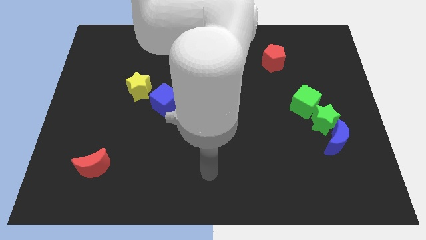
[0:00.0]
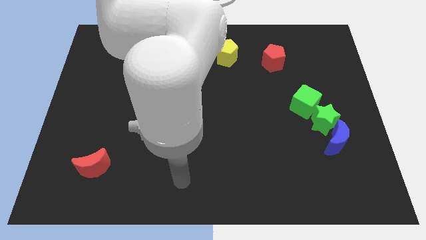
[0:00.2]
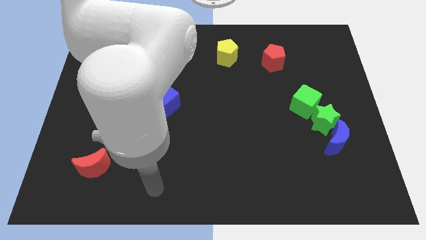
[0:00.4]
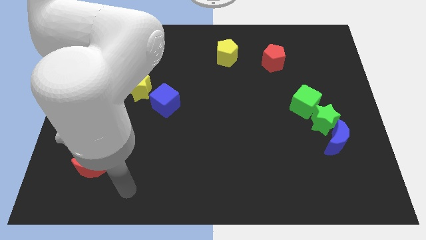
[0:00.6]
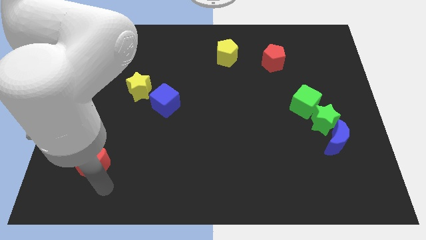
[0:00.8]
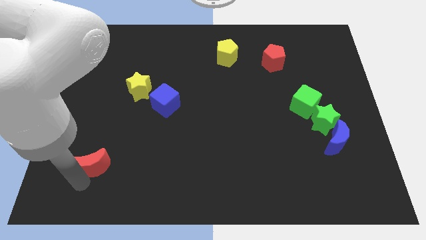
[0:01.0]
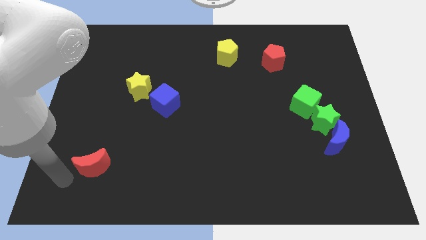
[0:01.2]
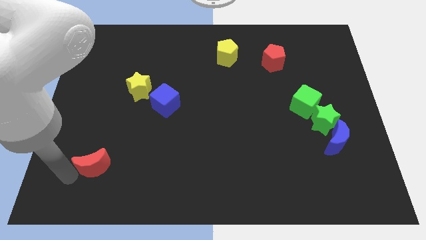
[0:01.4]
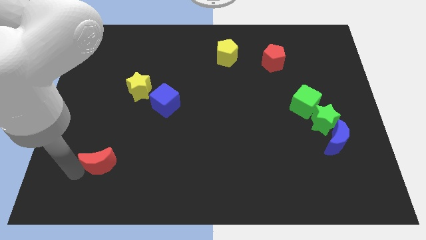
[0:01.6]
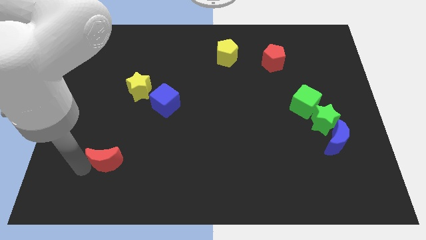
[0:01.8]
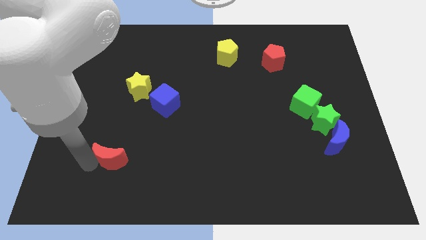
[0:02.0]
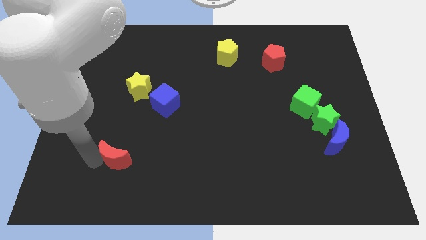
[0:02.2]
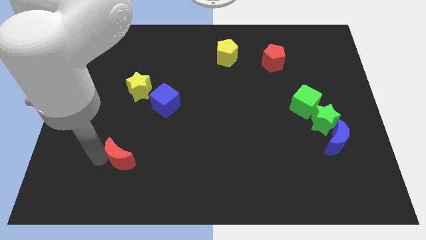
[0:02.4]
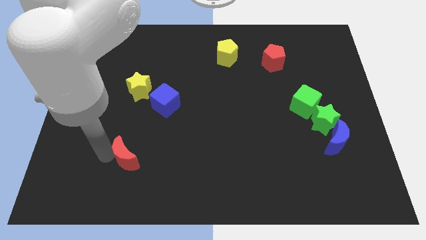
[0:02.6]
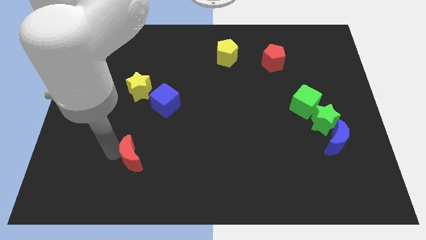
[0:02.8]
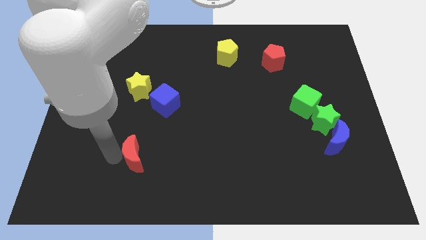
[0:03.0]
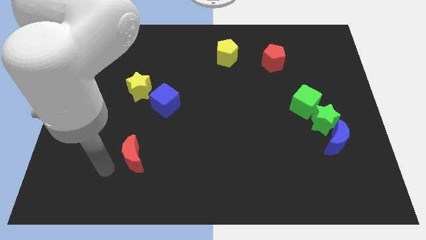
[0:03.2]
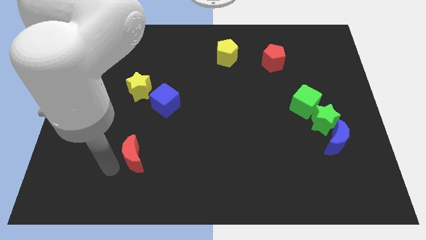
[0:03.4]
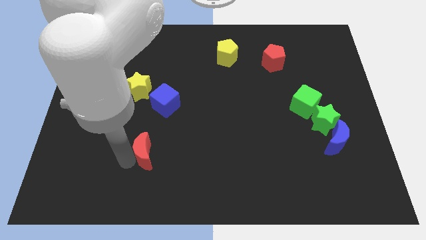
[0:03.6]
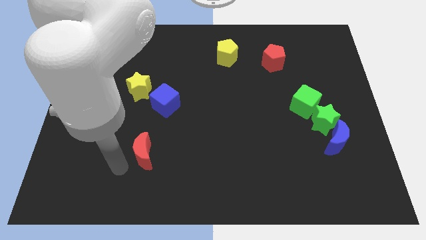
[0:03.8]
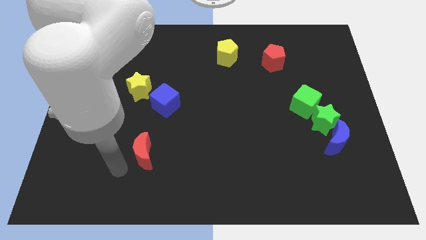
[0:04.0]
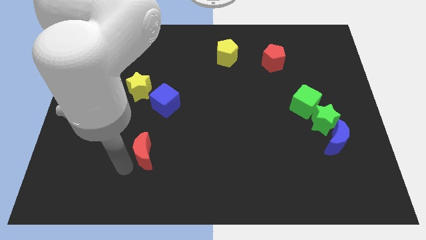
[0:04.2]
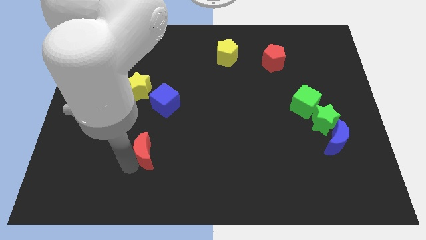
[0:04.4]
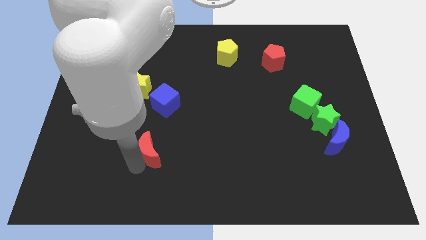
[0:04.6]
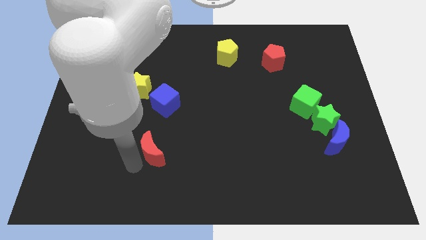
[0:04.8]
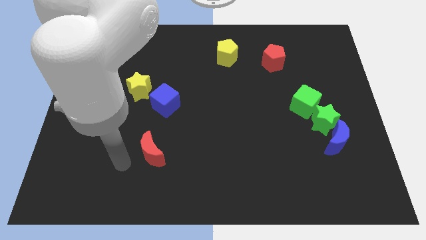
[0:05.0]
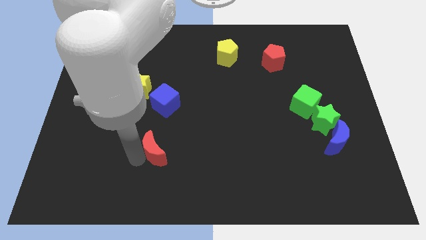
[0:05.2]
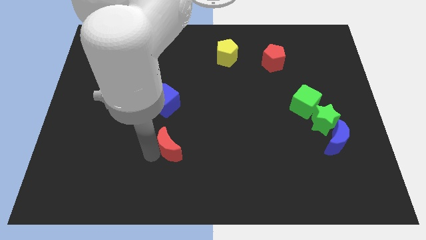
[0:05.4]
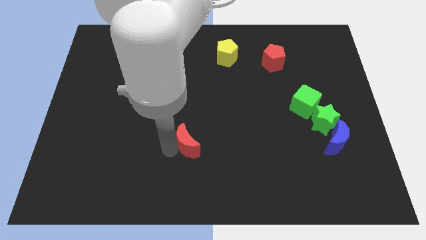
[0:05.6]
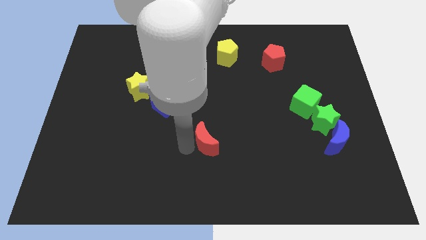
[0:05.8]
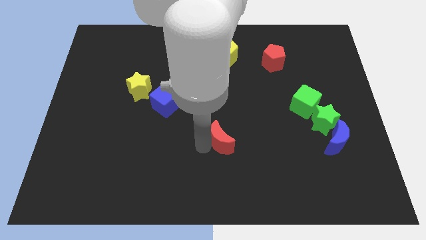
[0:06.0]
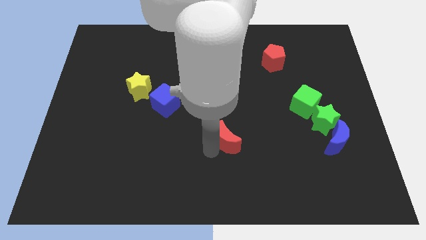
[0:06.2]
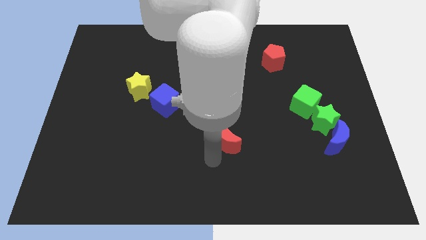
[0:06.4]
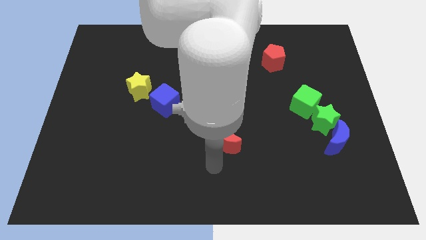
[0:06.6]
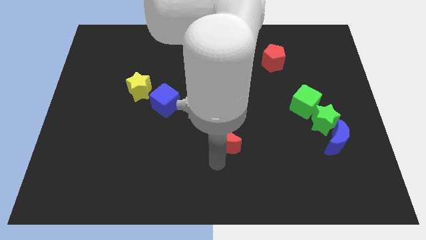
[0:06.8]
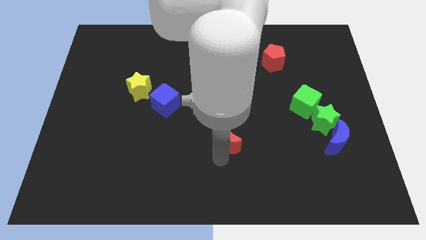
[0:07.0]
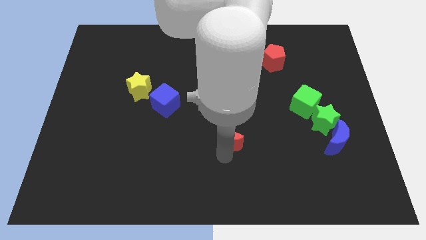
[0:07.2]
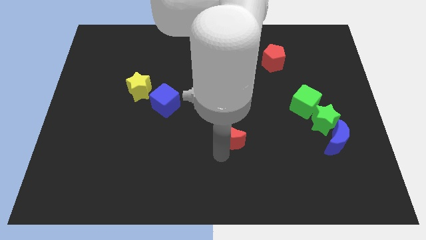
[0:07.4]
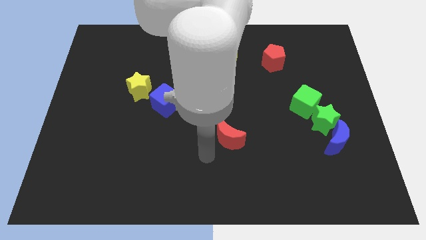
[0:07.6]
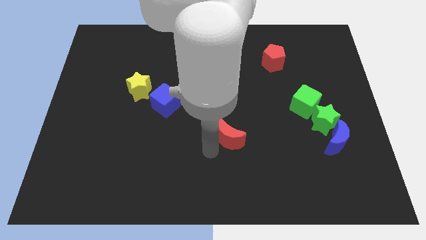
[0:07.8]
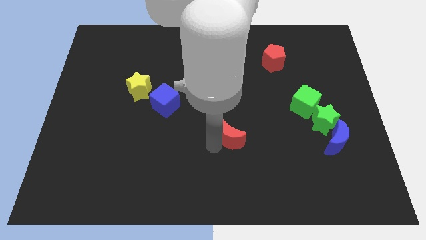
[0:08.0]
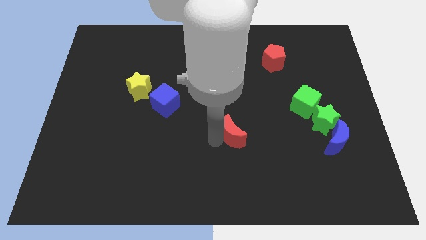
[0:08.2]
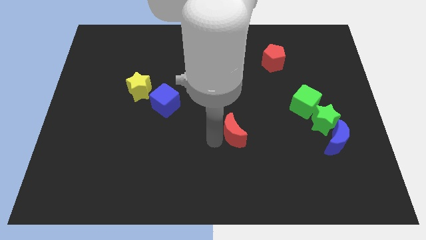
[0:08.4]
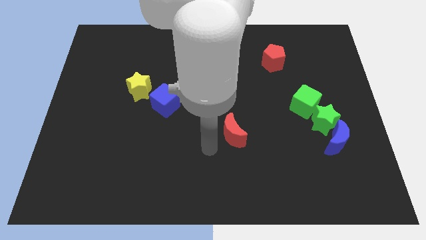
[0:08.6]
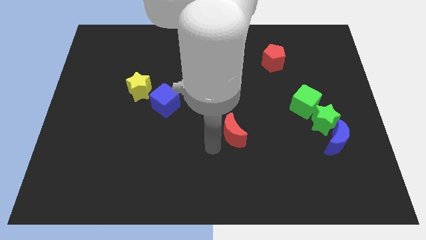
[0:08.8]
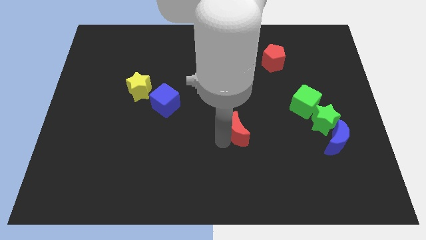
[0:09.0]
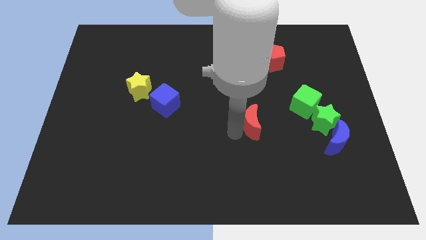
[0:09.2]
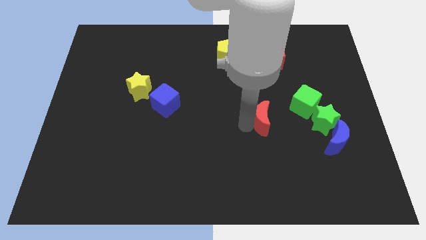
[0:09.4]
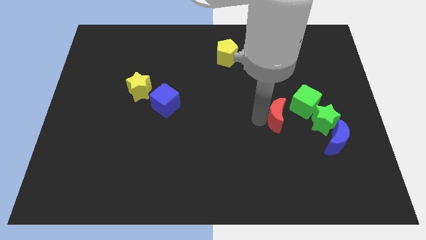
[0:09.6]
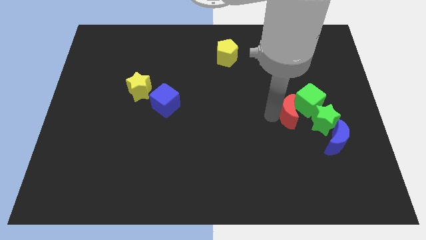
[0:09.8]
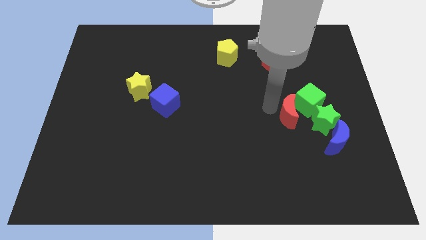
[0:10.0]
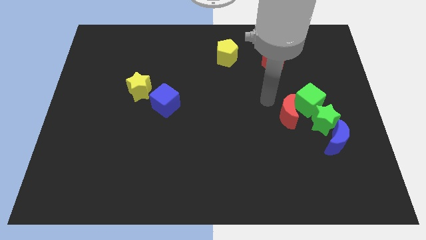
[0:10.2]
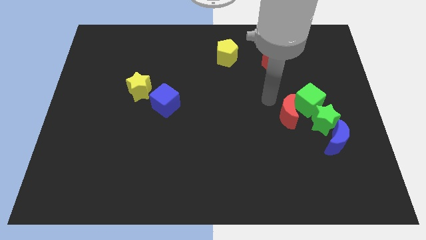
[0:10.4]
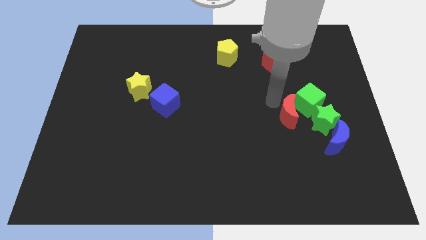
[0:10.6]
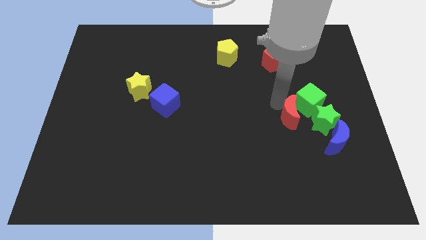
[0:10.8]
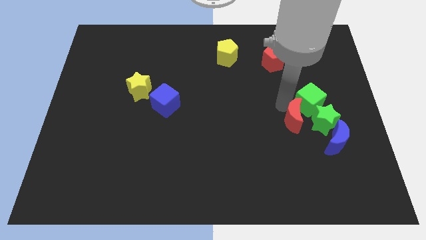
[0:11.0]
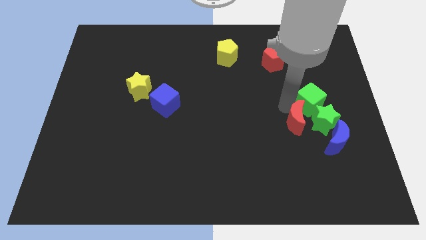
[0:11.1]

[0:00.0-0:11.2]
move the red moon close to the green star

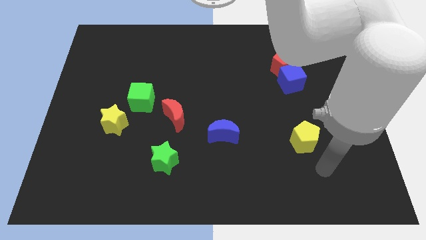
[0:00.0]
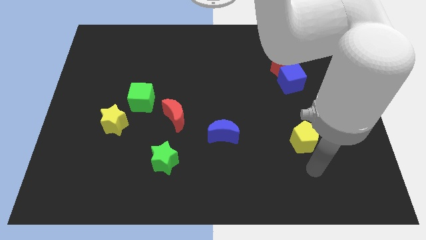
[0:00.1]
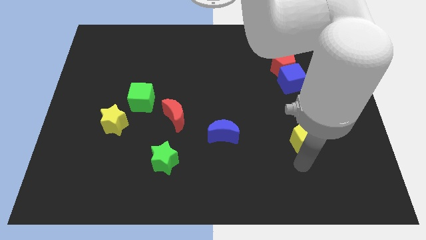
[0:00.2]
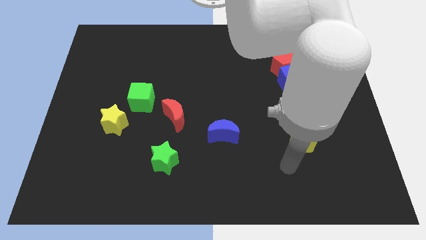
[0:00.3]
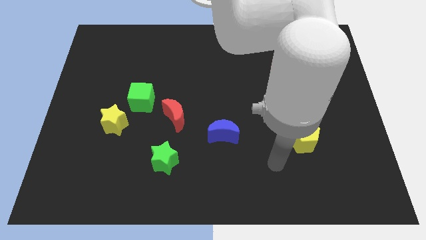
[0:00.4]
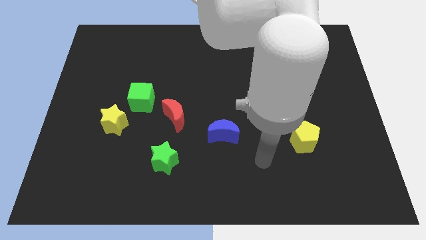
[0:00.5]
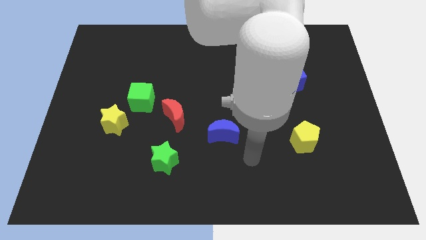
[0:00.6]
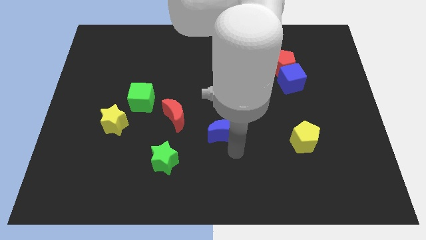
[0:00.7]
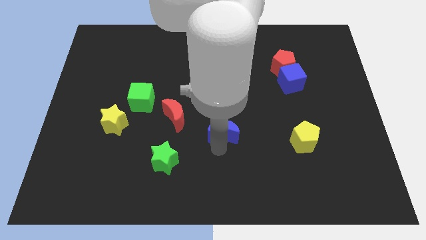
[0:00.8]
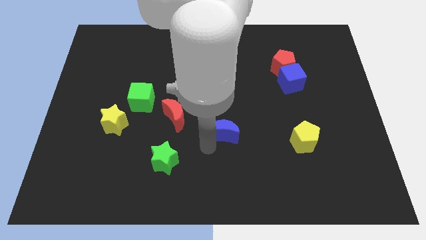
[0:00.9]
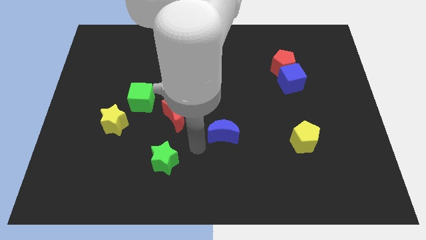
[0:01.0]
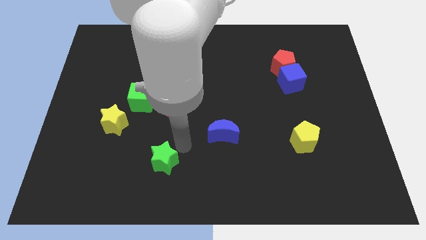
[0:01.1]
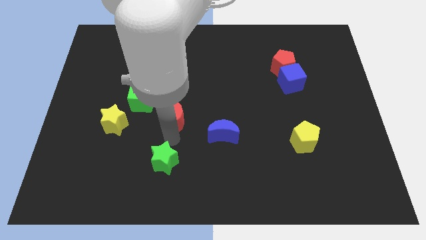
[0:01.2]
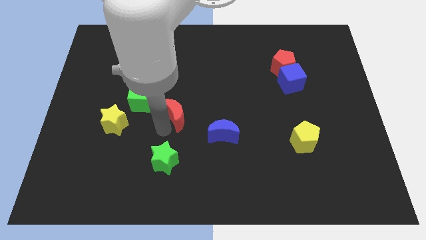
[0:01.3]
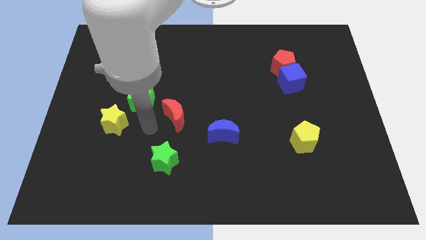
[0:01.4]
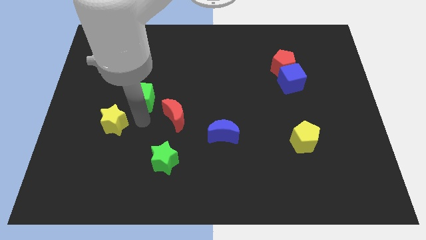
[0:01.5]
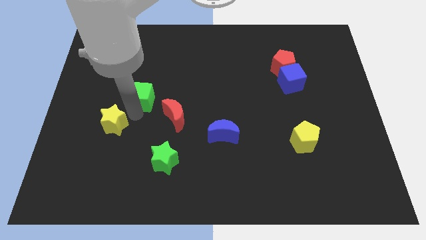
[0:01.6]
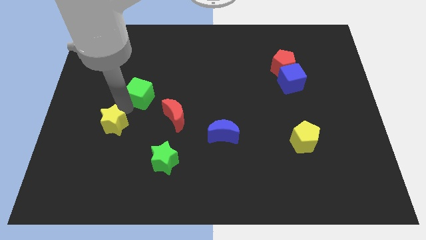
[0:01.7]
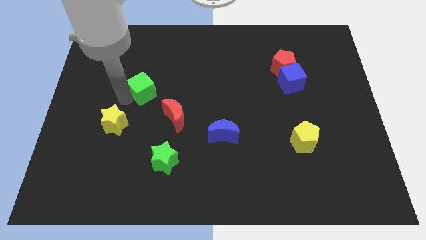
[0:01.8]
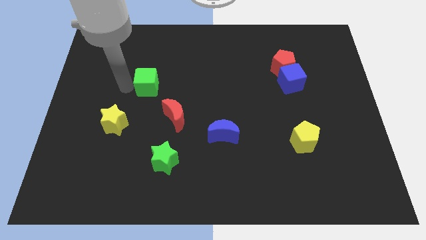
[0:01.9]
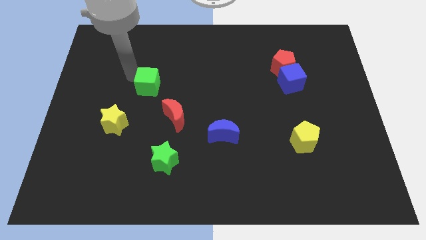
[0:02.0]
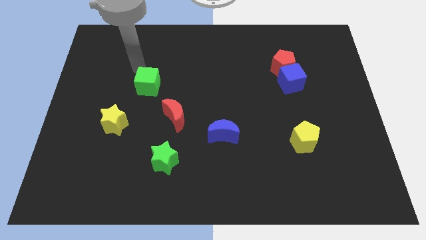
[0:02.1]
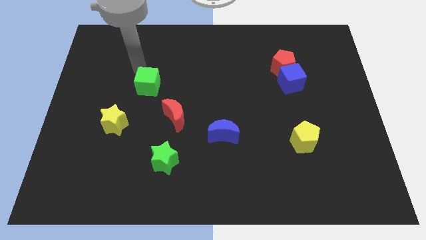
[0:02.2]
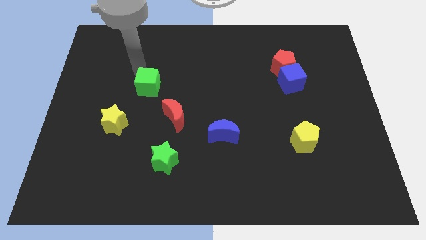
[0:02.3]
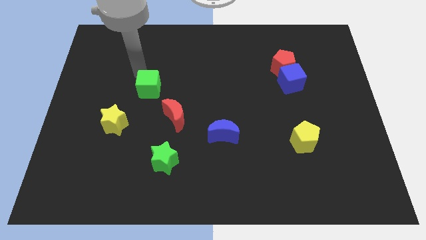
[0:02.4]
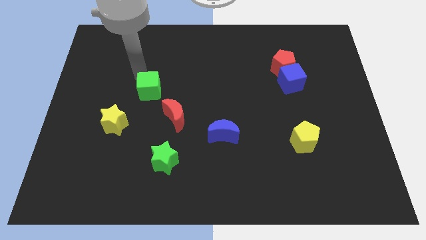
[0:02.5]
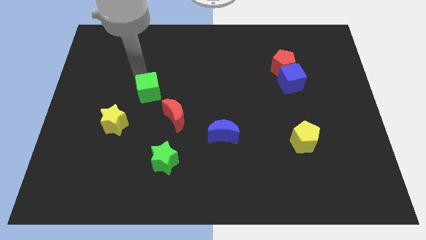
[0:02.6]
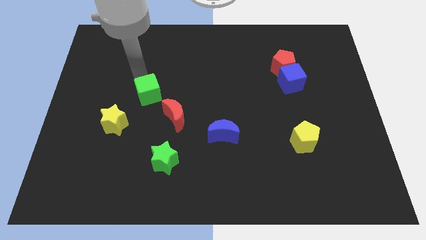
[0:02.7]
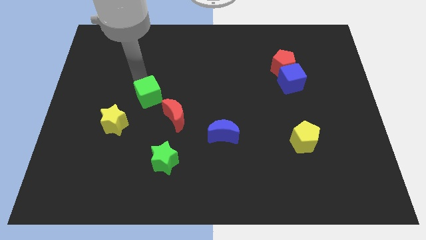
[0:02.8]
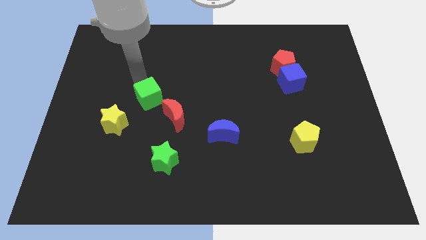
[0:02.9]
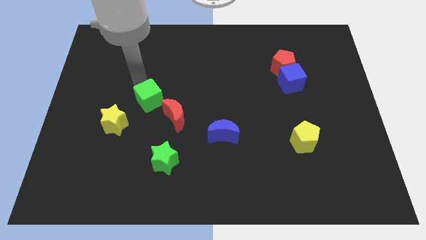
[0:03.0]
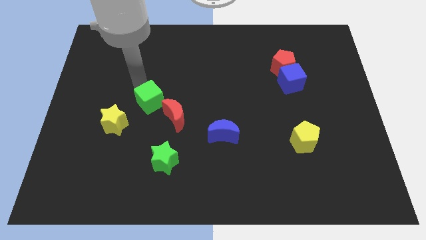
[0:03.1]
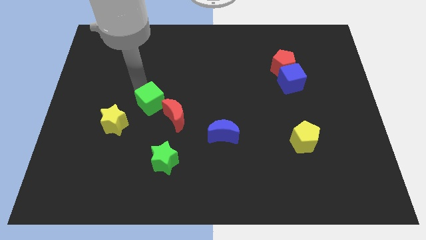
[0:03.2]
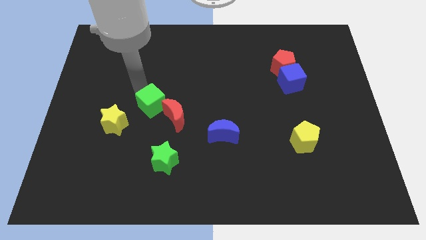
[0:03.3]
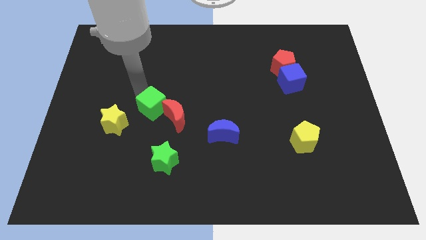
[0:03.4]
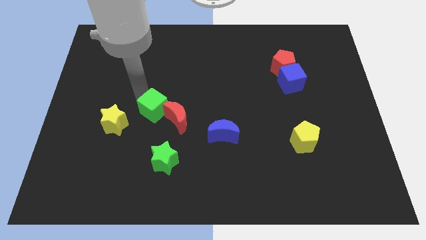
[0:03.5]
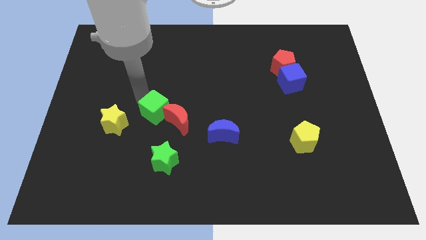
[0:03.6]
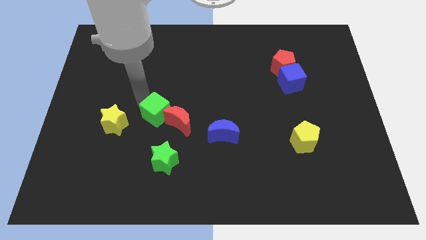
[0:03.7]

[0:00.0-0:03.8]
put the green cube next to the red moon
